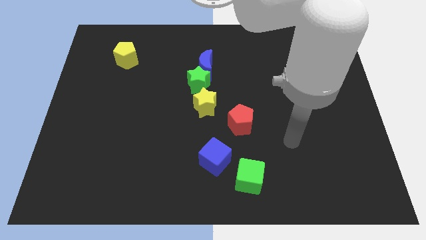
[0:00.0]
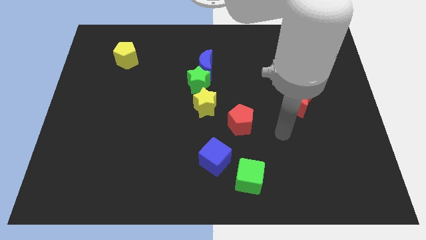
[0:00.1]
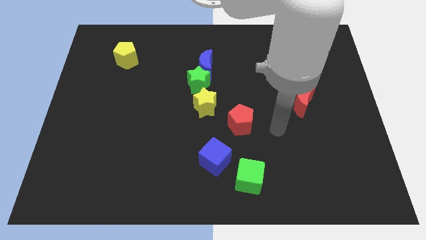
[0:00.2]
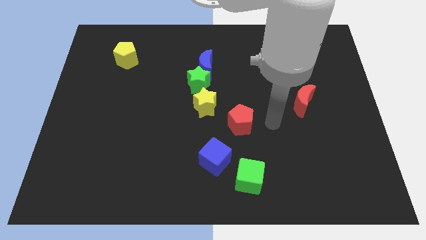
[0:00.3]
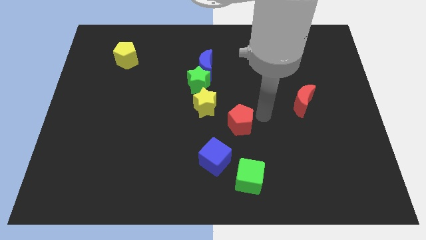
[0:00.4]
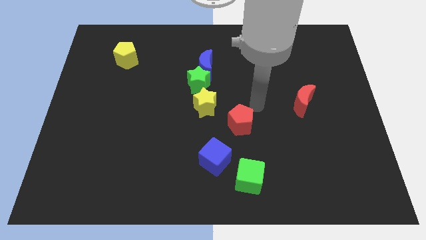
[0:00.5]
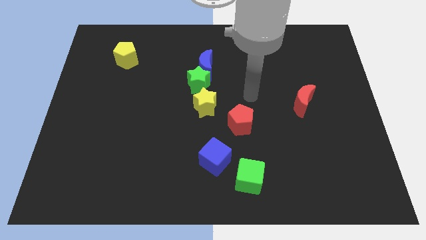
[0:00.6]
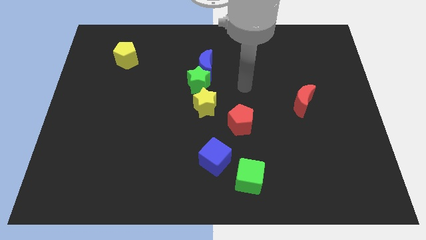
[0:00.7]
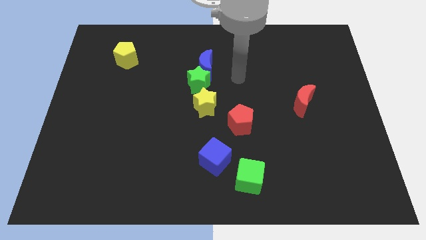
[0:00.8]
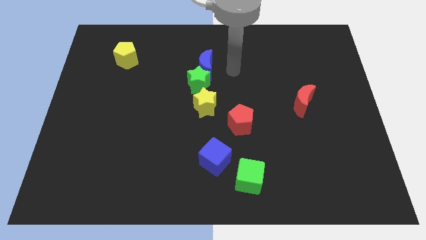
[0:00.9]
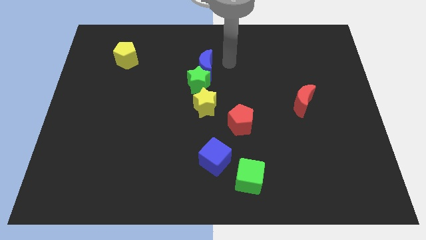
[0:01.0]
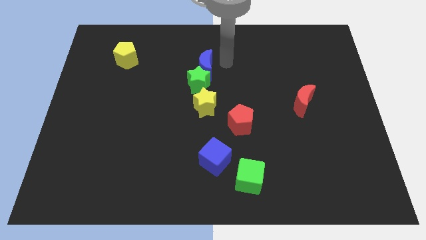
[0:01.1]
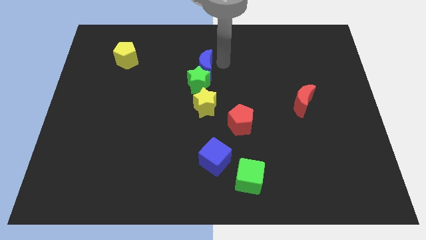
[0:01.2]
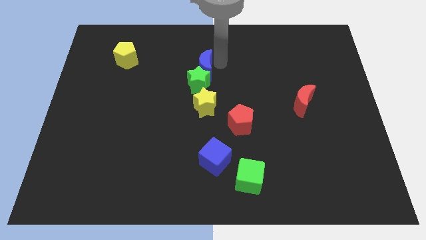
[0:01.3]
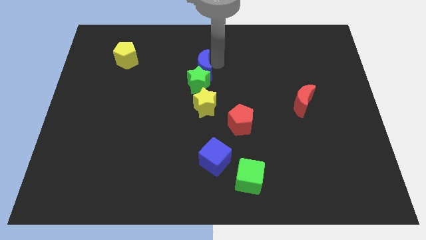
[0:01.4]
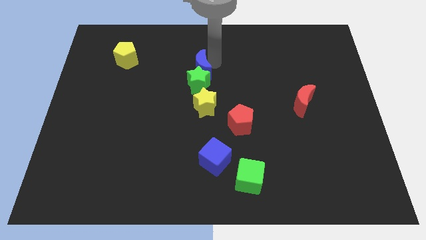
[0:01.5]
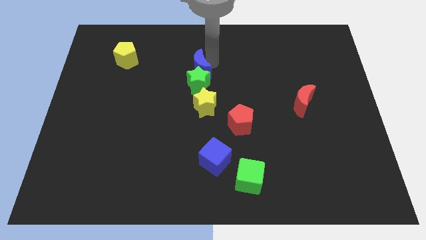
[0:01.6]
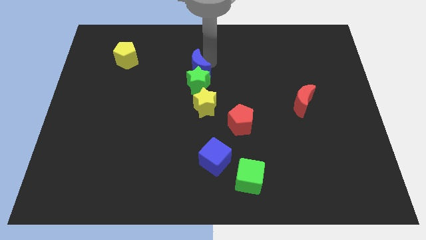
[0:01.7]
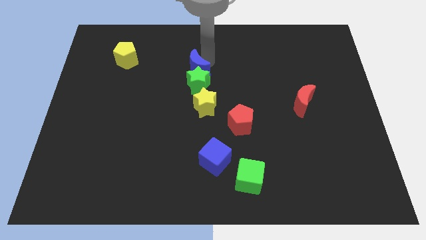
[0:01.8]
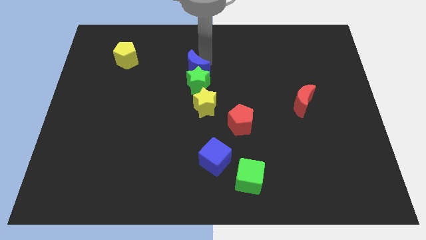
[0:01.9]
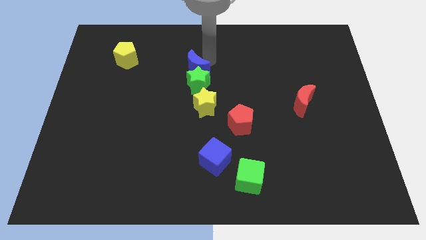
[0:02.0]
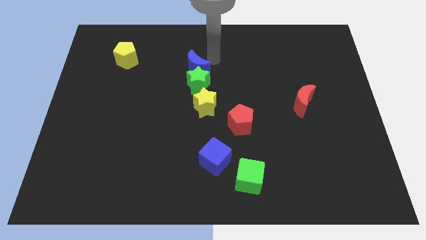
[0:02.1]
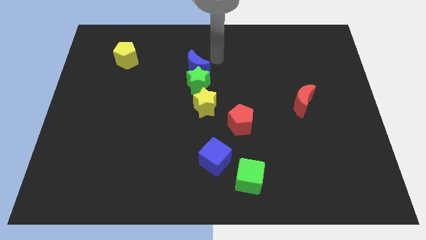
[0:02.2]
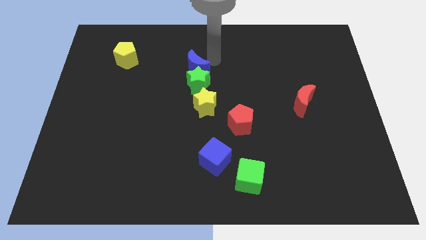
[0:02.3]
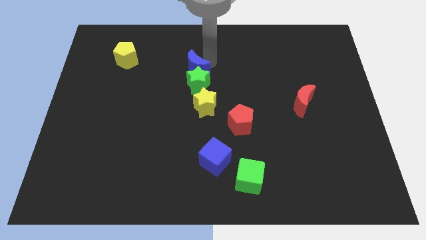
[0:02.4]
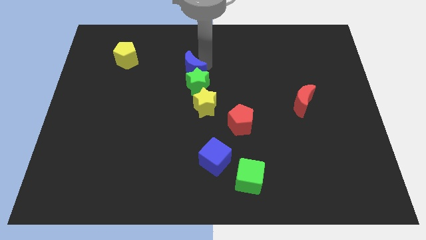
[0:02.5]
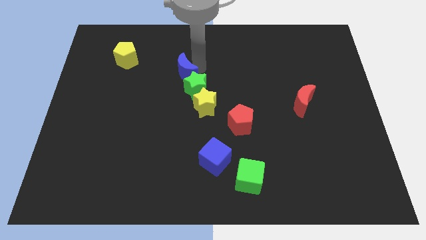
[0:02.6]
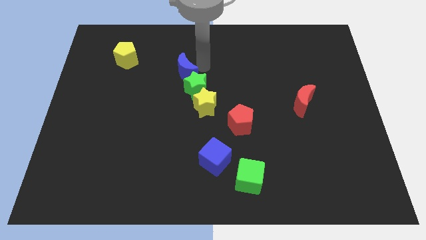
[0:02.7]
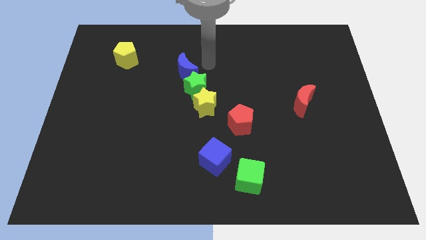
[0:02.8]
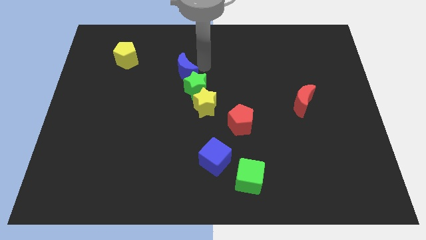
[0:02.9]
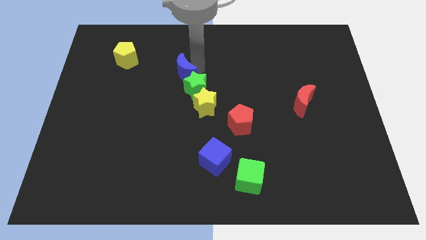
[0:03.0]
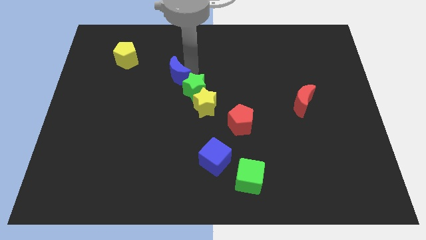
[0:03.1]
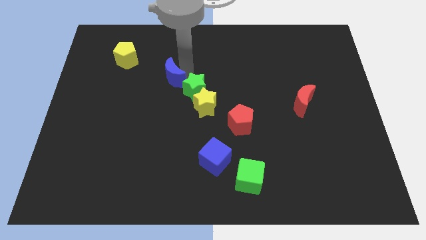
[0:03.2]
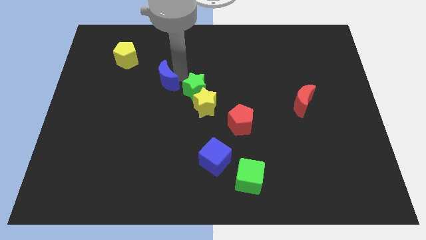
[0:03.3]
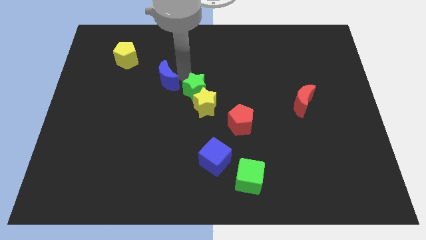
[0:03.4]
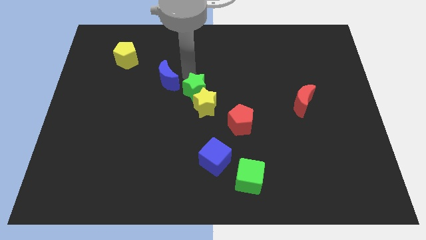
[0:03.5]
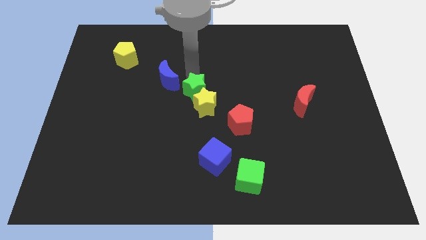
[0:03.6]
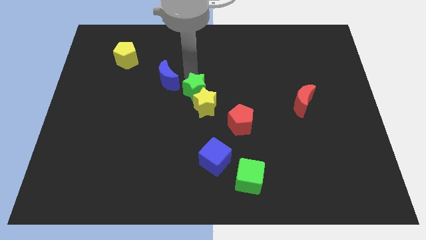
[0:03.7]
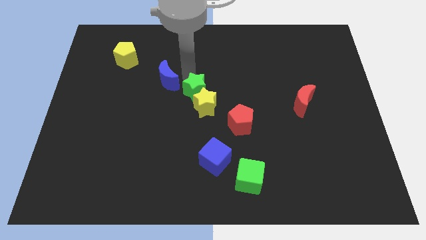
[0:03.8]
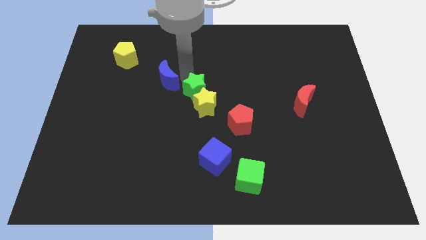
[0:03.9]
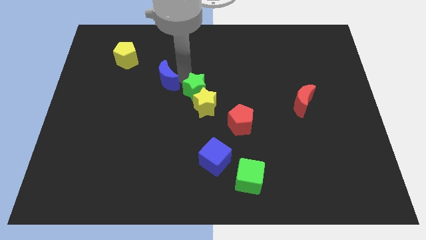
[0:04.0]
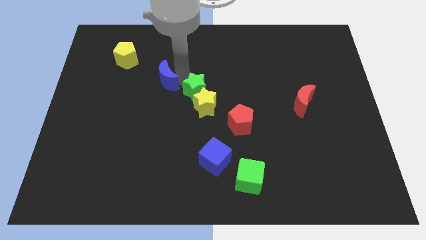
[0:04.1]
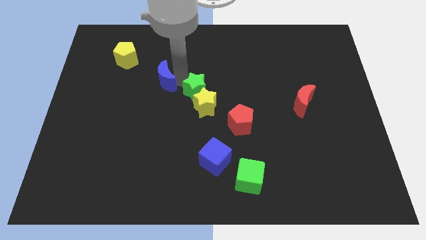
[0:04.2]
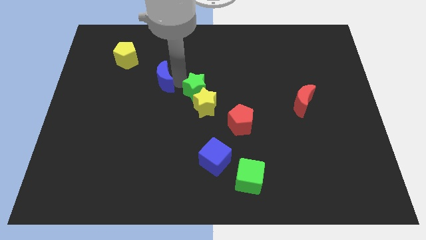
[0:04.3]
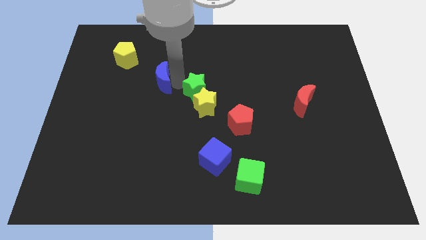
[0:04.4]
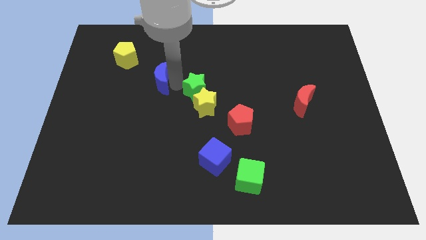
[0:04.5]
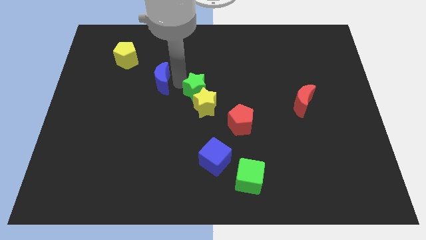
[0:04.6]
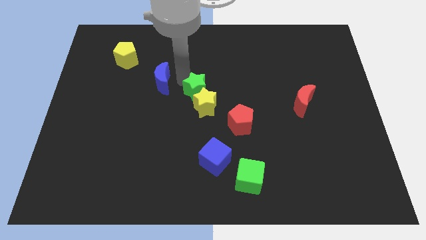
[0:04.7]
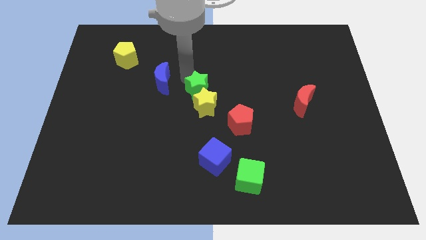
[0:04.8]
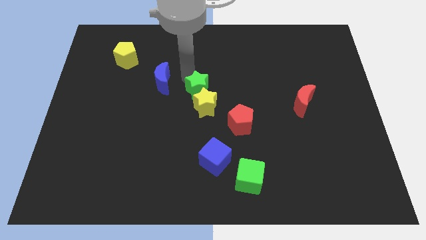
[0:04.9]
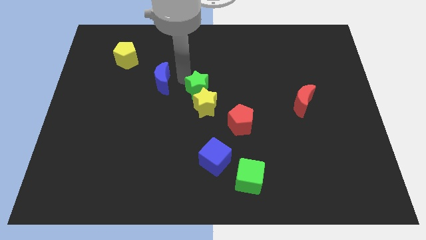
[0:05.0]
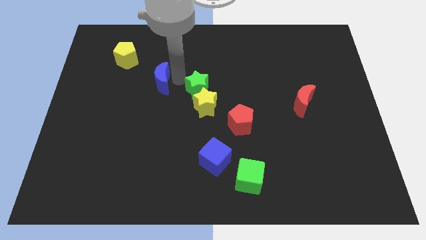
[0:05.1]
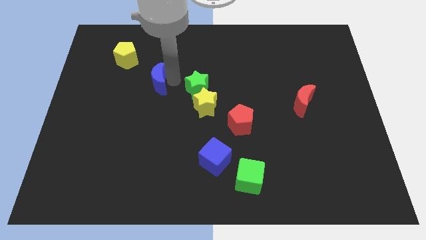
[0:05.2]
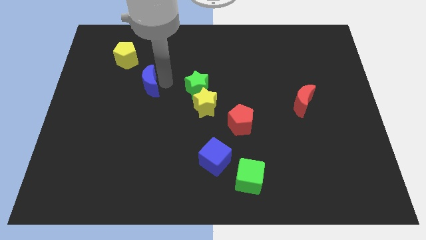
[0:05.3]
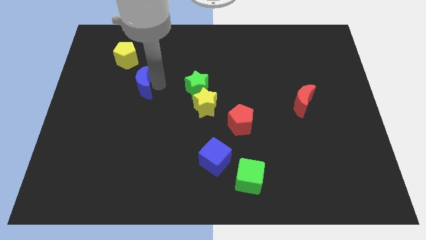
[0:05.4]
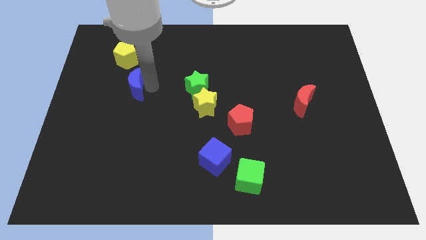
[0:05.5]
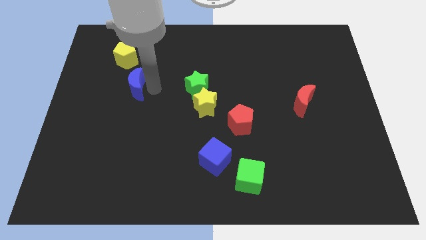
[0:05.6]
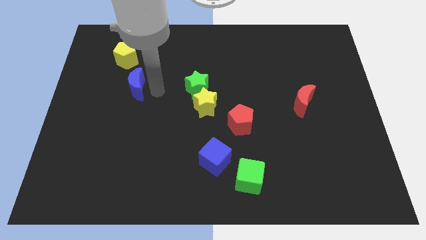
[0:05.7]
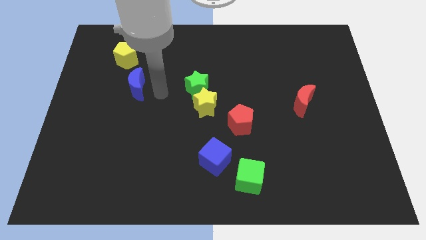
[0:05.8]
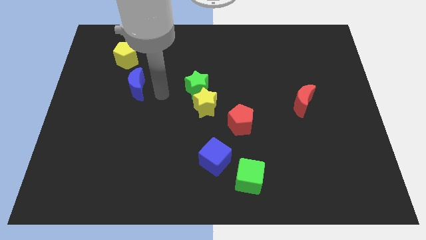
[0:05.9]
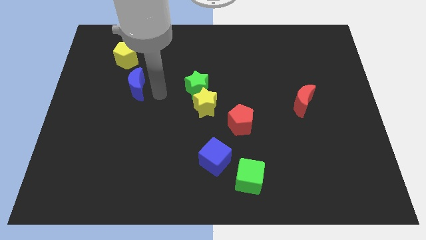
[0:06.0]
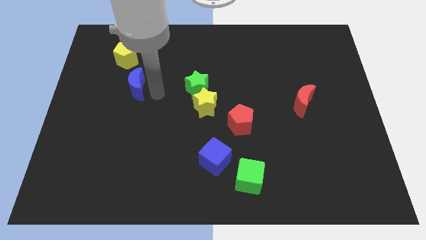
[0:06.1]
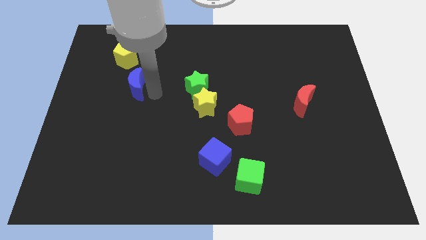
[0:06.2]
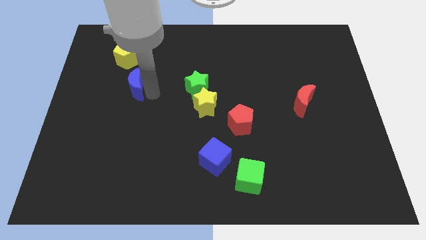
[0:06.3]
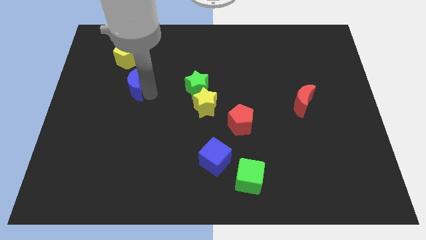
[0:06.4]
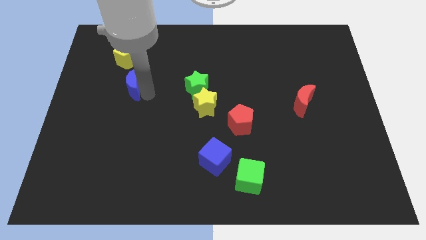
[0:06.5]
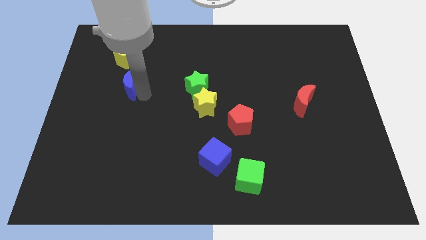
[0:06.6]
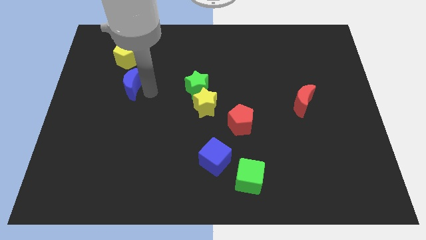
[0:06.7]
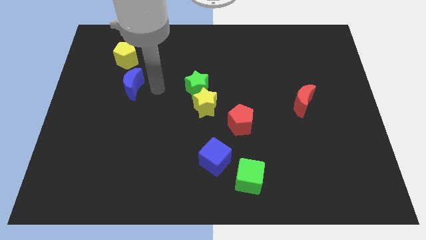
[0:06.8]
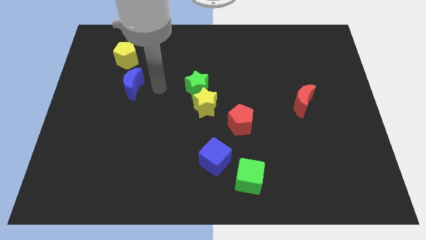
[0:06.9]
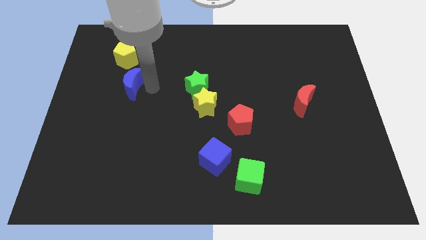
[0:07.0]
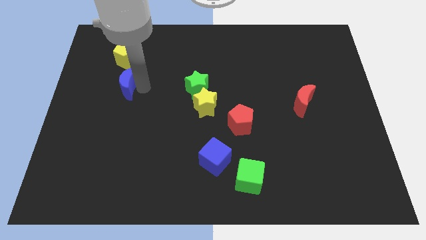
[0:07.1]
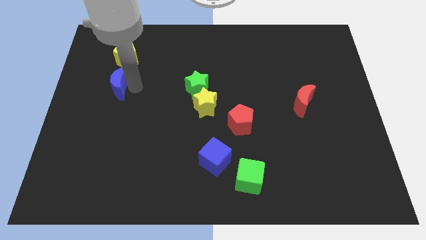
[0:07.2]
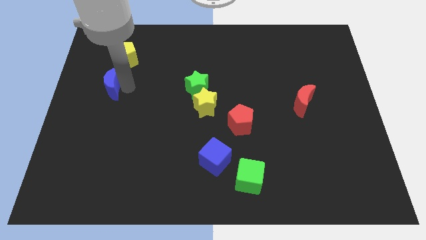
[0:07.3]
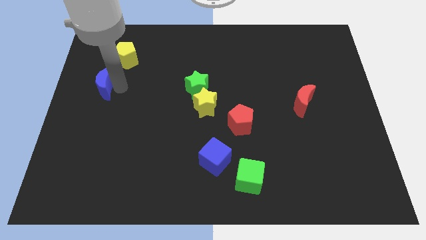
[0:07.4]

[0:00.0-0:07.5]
put the blue moon to the left side of the board
